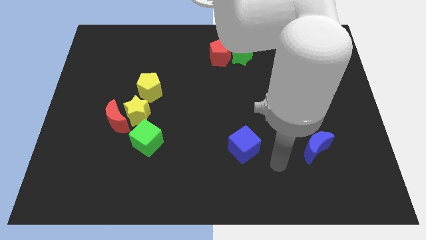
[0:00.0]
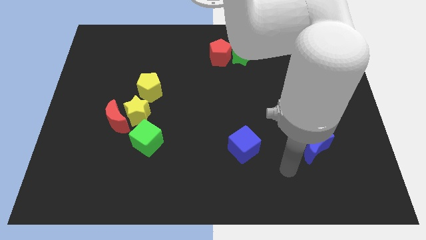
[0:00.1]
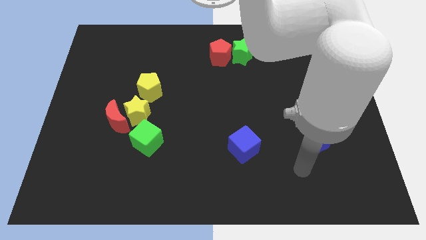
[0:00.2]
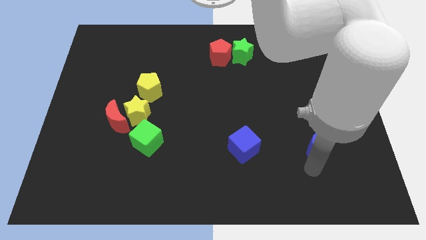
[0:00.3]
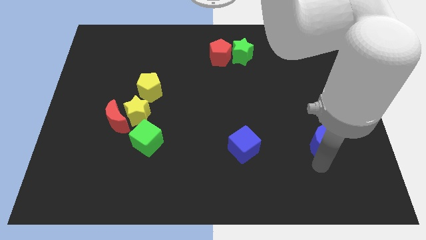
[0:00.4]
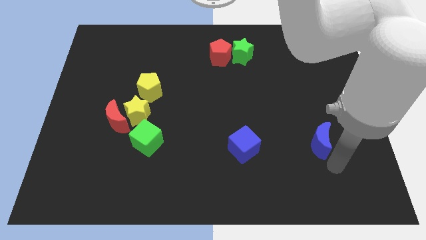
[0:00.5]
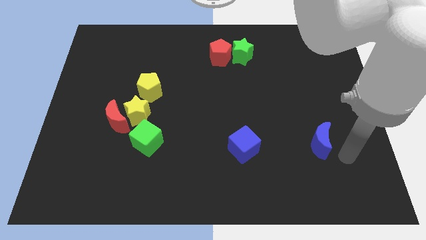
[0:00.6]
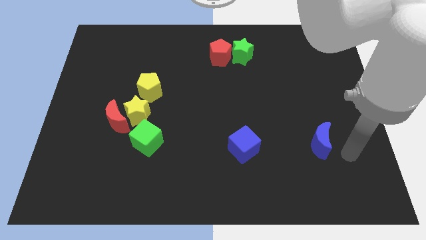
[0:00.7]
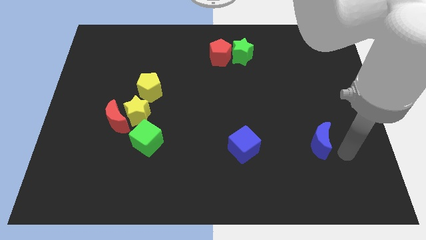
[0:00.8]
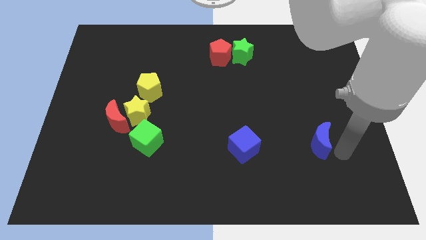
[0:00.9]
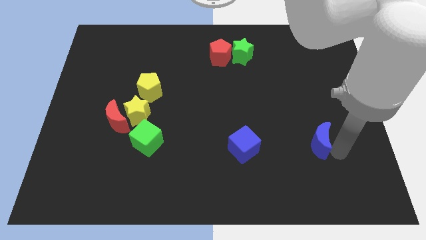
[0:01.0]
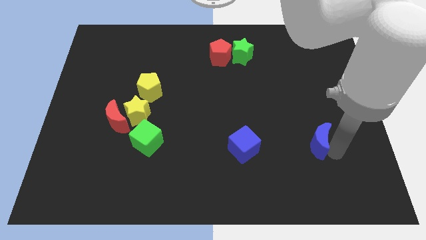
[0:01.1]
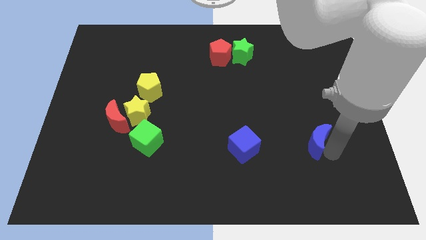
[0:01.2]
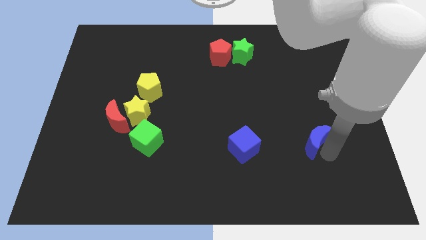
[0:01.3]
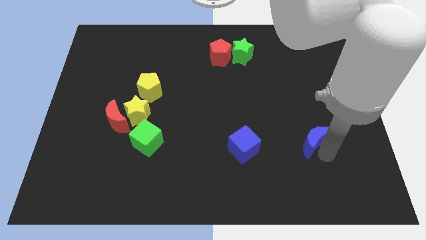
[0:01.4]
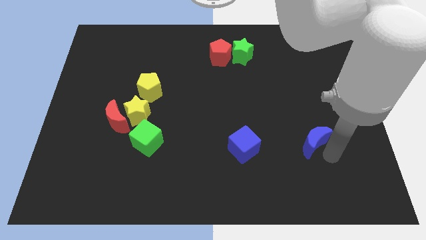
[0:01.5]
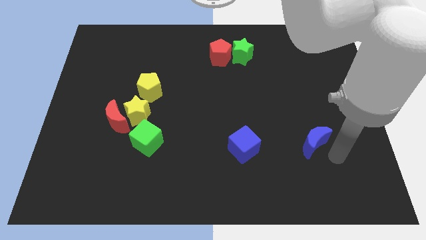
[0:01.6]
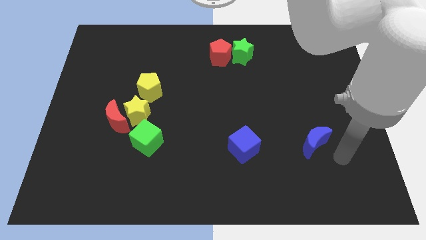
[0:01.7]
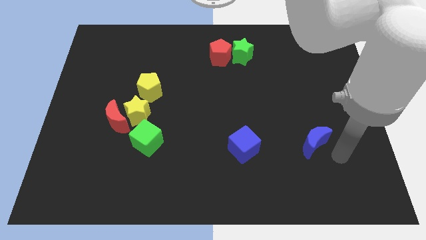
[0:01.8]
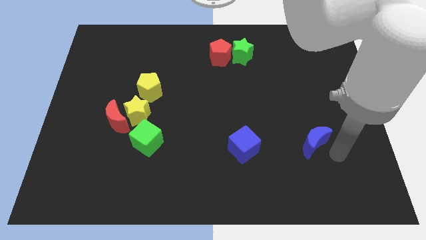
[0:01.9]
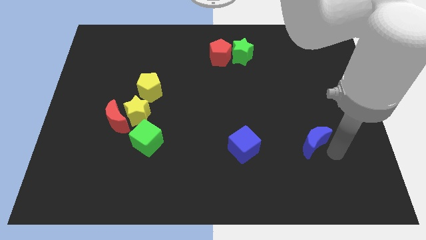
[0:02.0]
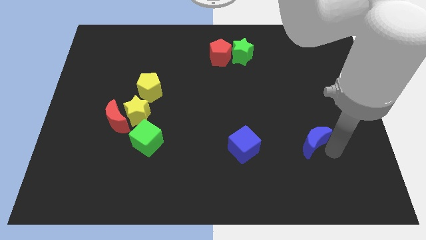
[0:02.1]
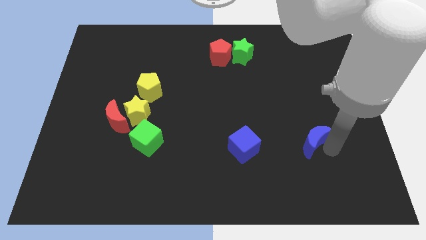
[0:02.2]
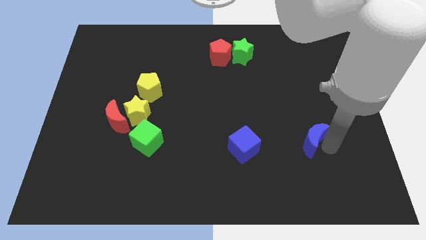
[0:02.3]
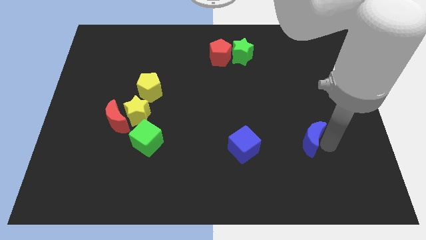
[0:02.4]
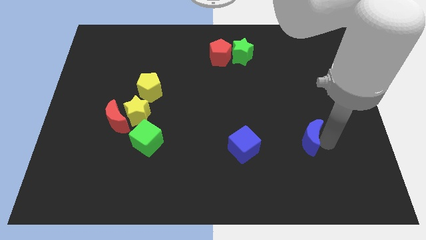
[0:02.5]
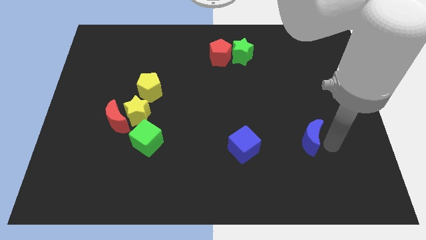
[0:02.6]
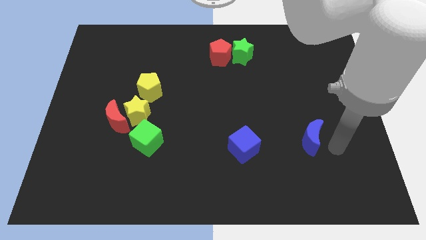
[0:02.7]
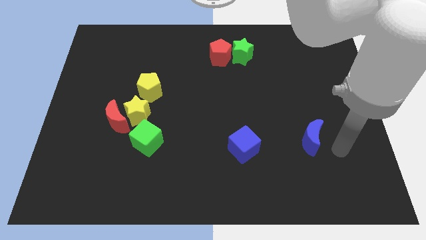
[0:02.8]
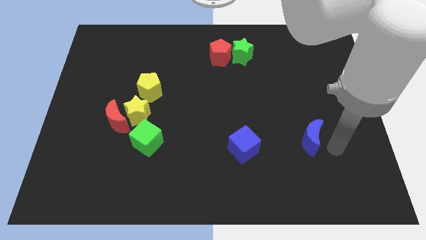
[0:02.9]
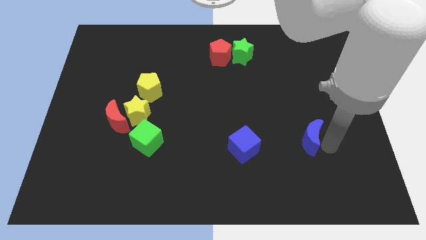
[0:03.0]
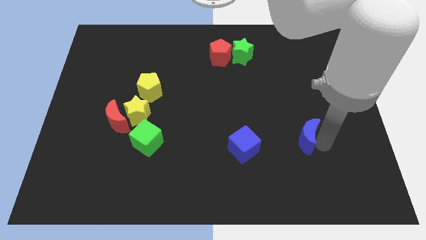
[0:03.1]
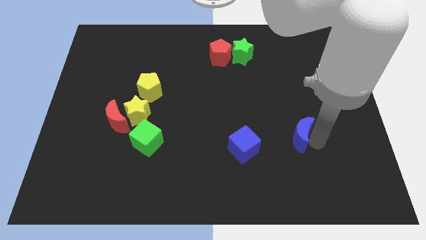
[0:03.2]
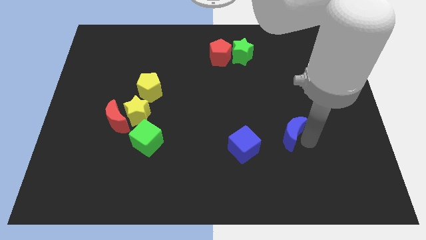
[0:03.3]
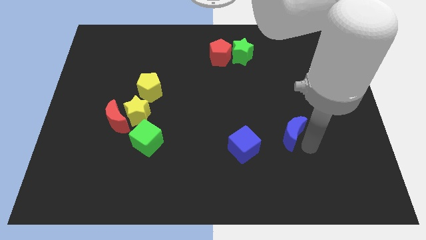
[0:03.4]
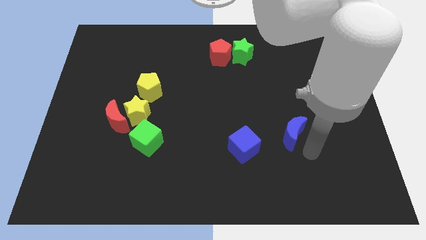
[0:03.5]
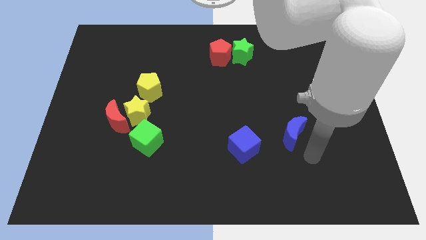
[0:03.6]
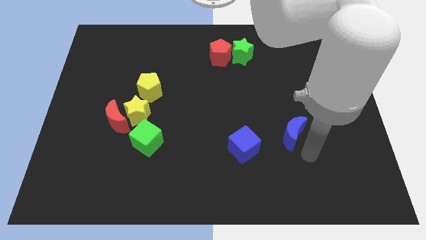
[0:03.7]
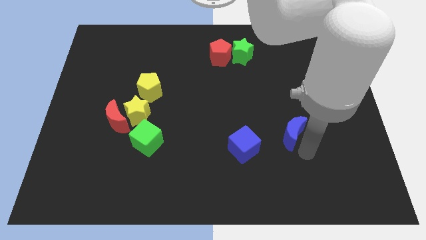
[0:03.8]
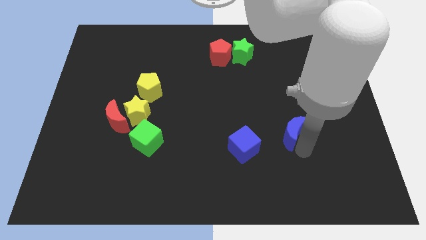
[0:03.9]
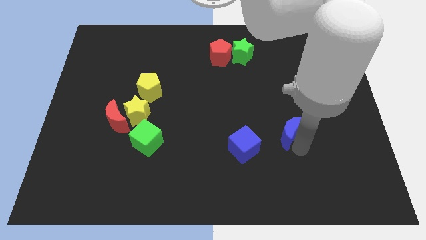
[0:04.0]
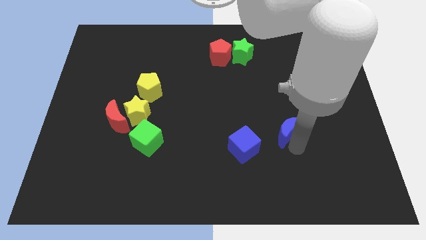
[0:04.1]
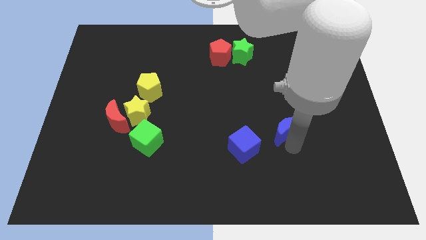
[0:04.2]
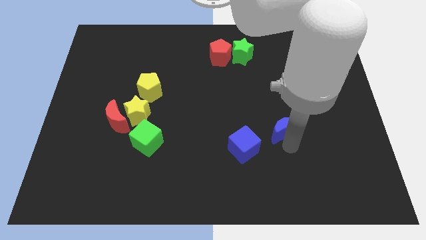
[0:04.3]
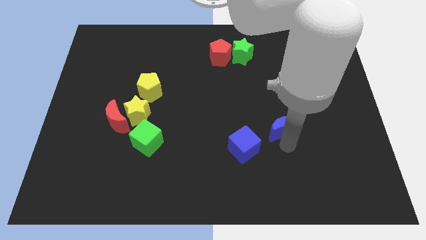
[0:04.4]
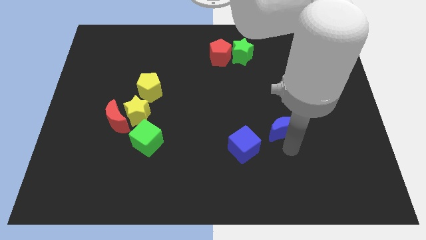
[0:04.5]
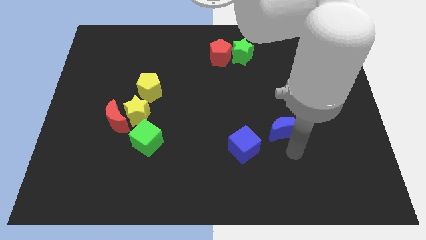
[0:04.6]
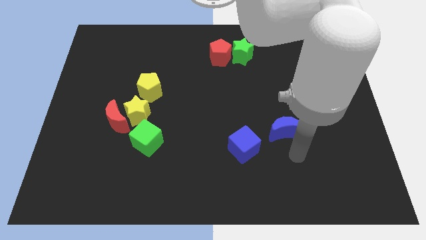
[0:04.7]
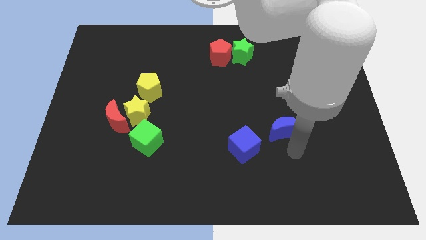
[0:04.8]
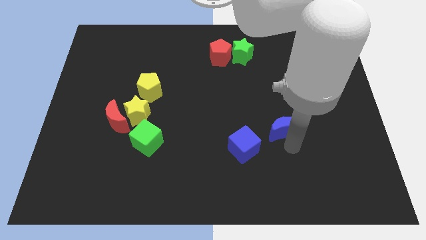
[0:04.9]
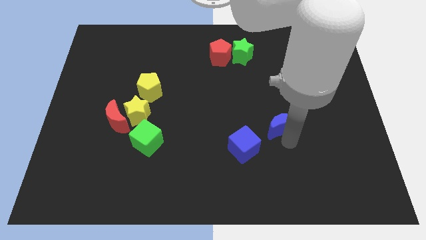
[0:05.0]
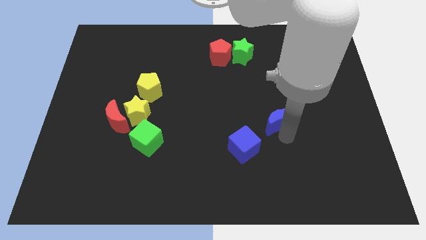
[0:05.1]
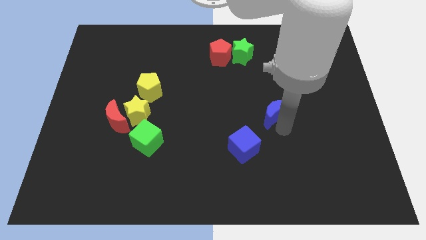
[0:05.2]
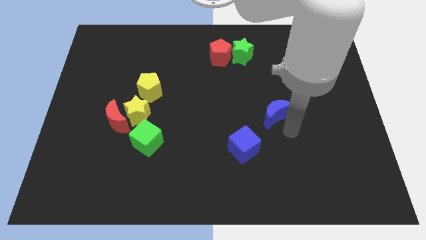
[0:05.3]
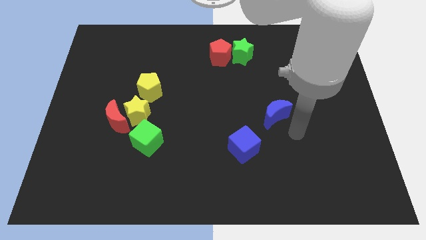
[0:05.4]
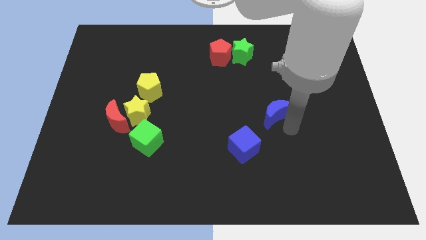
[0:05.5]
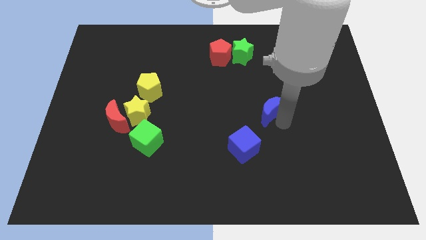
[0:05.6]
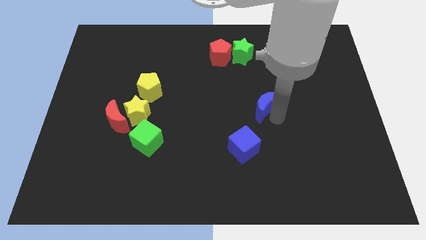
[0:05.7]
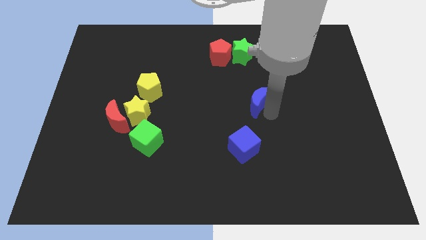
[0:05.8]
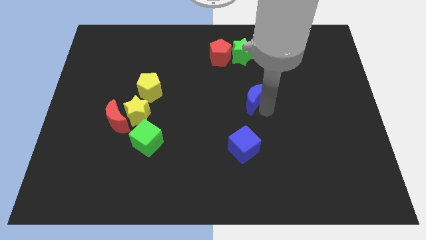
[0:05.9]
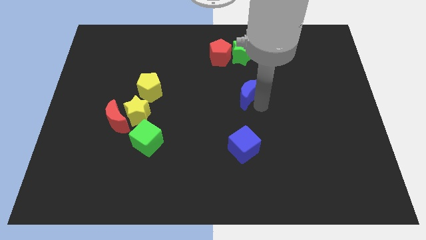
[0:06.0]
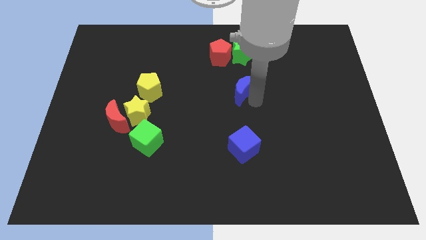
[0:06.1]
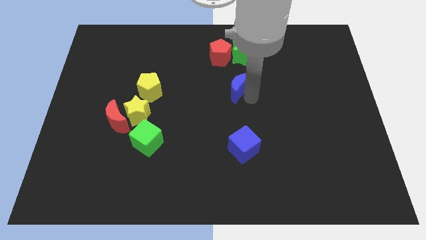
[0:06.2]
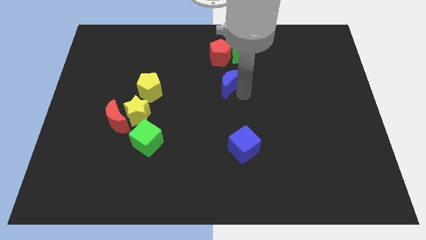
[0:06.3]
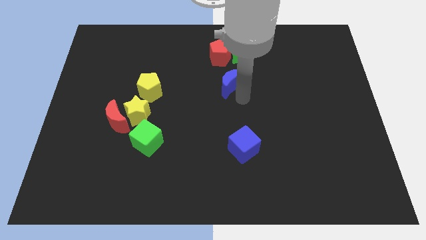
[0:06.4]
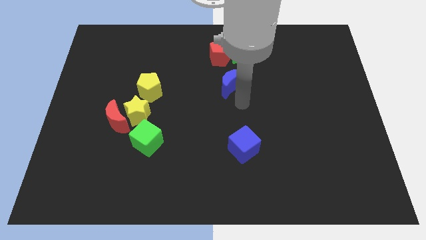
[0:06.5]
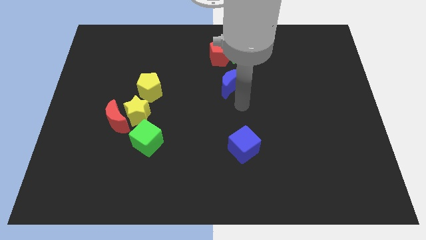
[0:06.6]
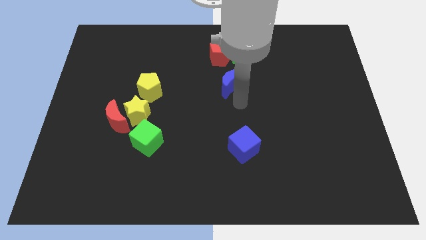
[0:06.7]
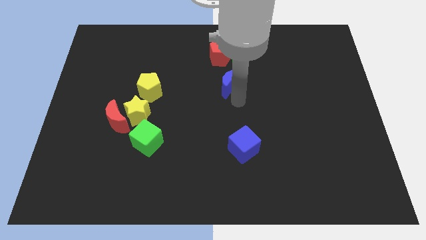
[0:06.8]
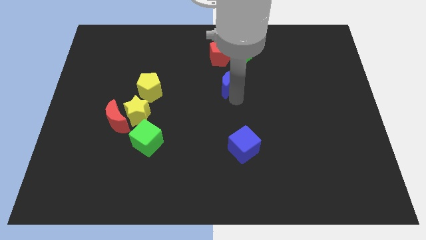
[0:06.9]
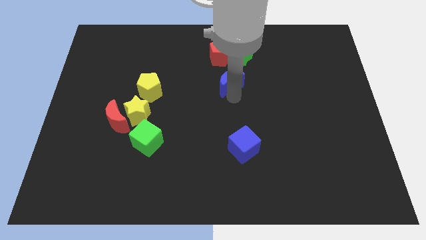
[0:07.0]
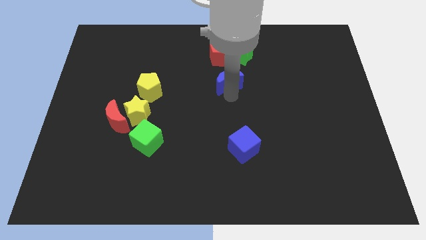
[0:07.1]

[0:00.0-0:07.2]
push the blue moon to the bottom left side of the green star

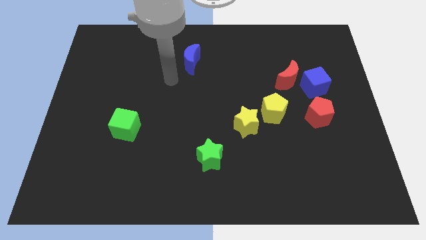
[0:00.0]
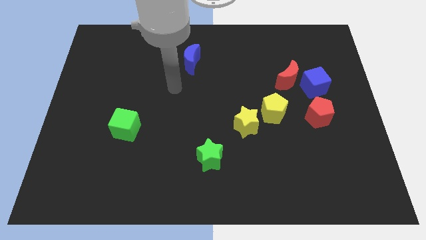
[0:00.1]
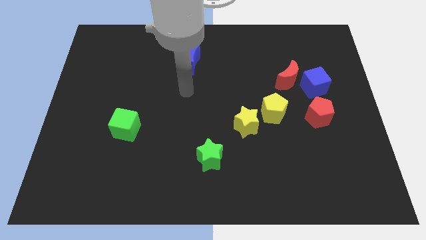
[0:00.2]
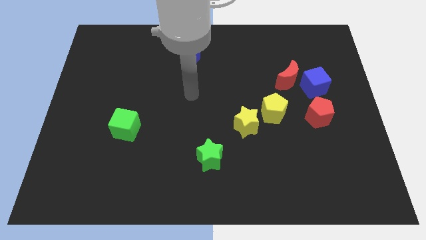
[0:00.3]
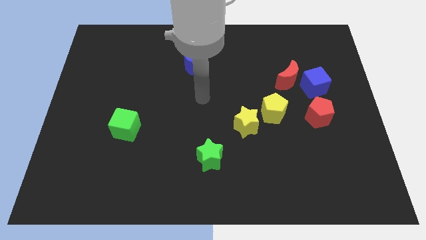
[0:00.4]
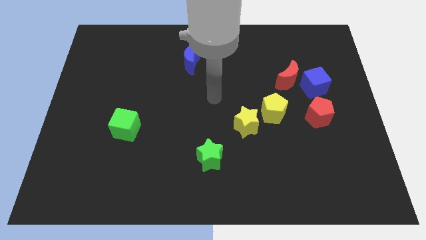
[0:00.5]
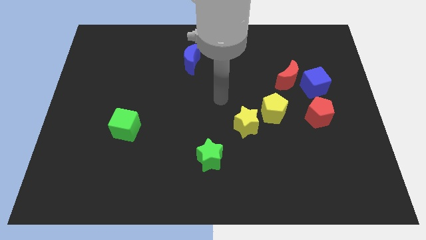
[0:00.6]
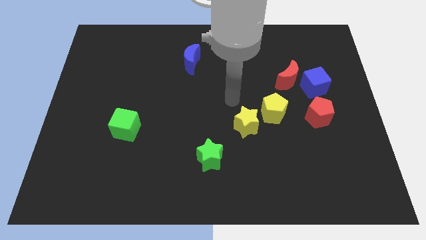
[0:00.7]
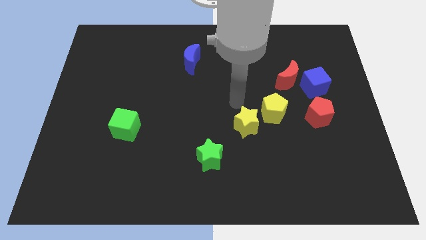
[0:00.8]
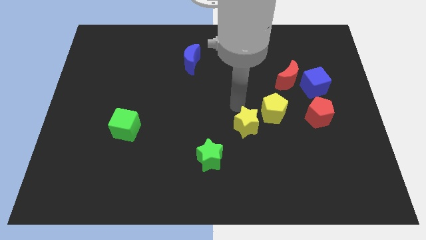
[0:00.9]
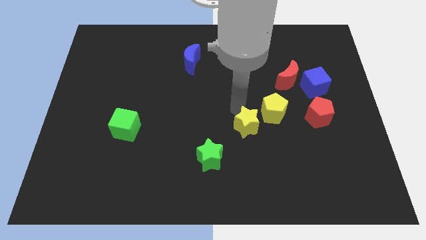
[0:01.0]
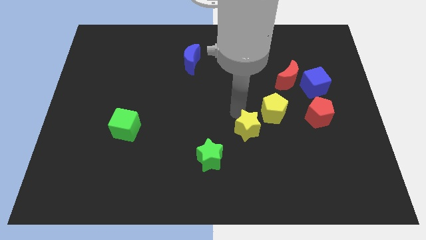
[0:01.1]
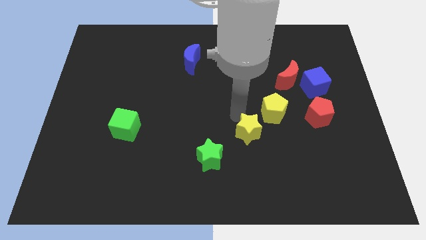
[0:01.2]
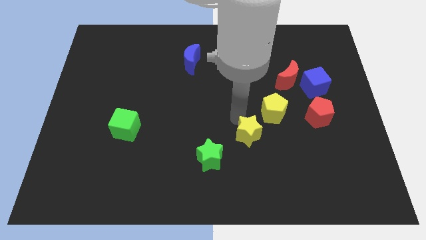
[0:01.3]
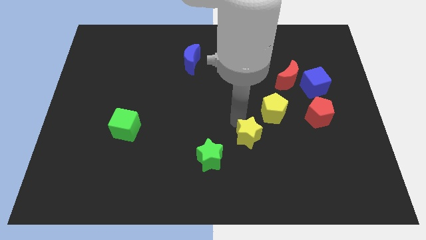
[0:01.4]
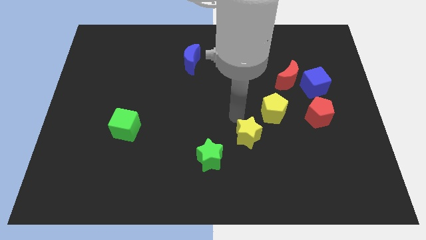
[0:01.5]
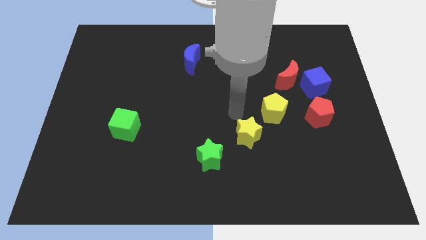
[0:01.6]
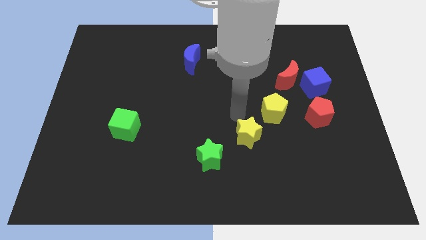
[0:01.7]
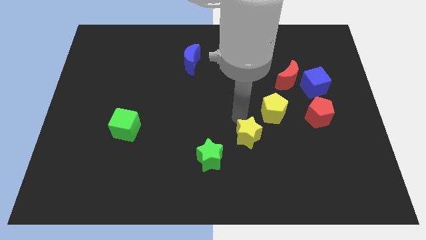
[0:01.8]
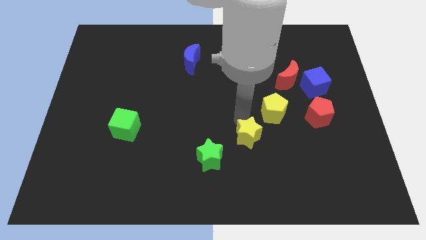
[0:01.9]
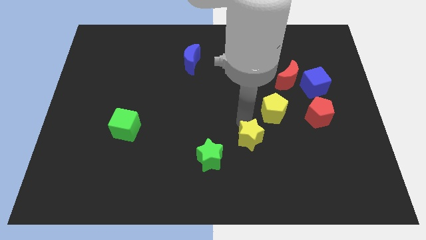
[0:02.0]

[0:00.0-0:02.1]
slide the yellow star to the right side of the green star
